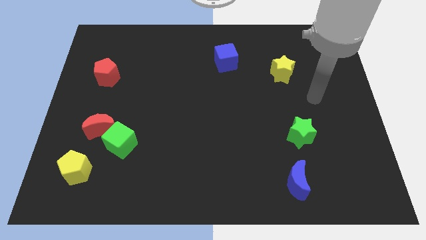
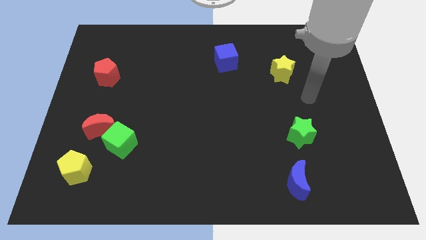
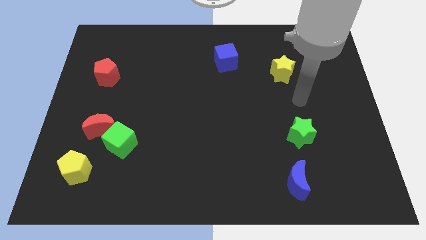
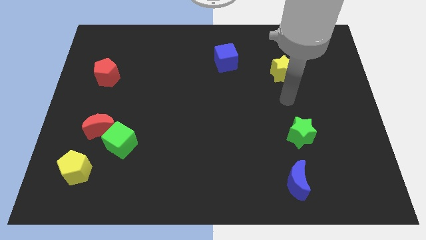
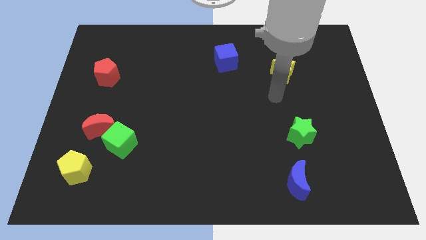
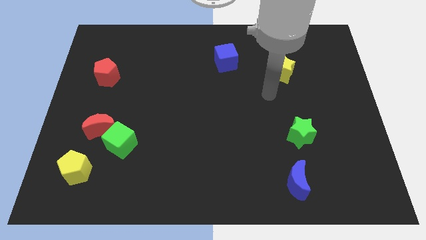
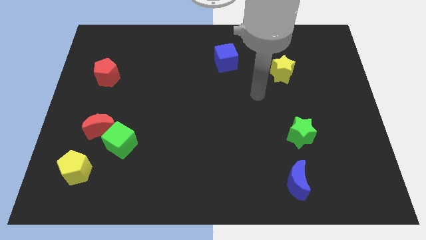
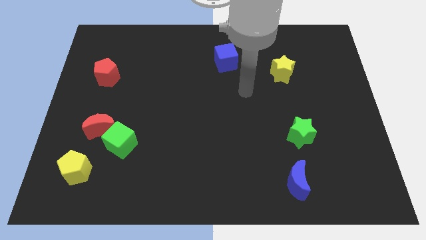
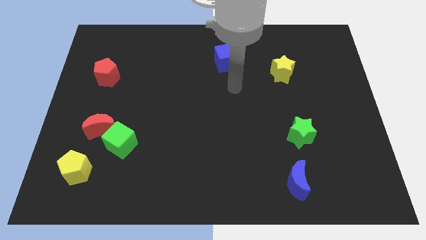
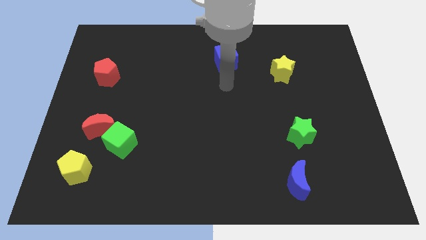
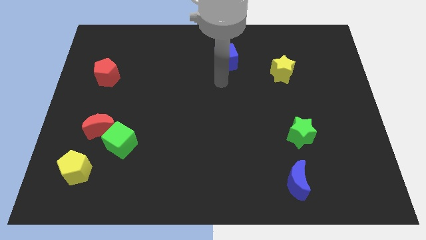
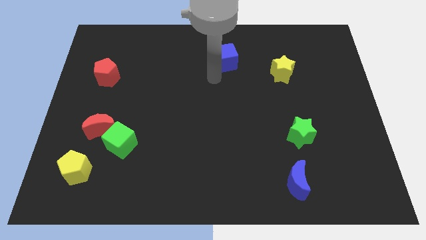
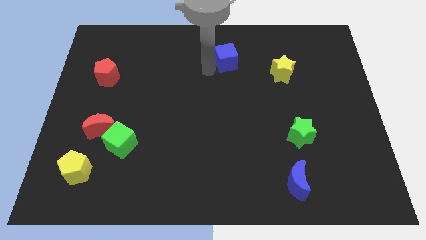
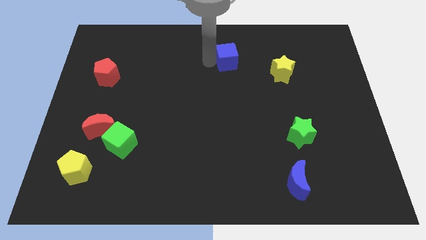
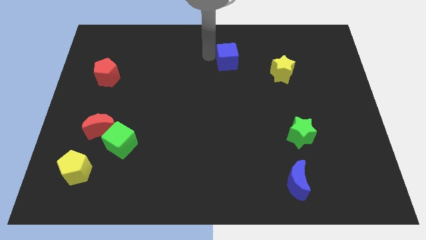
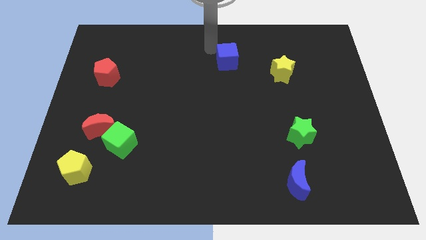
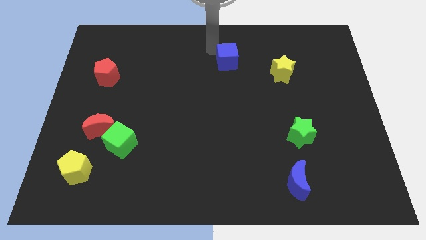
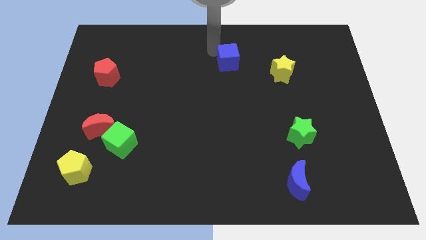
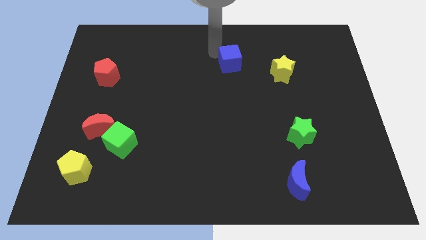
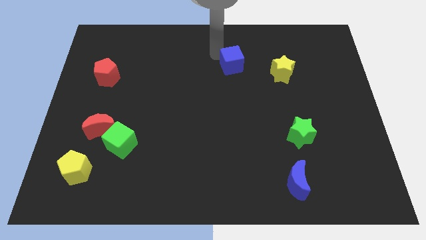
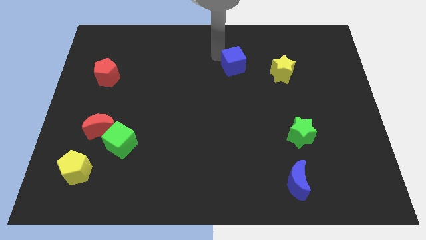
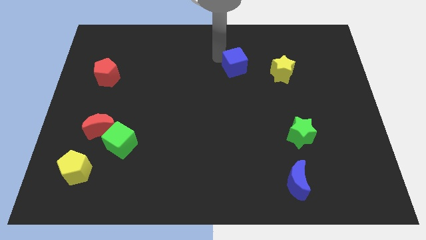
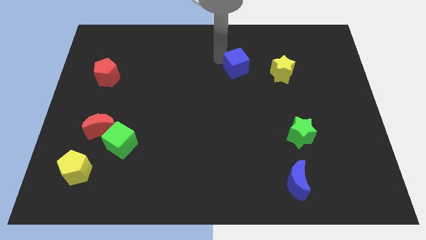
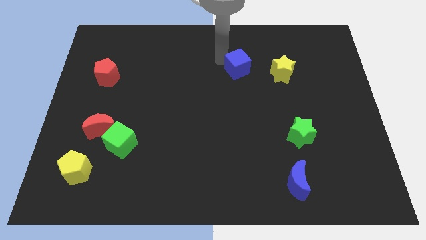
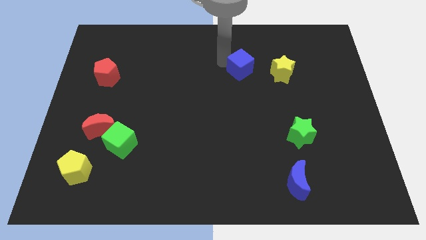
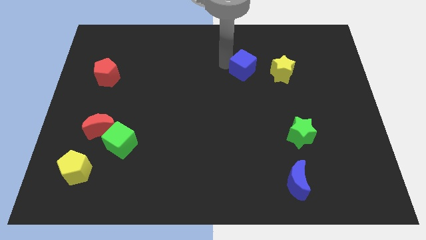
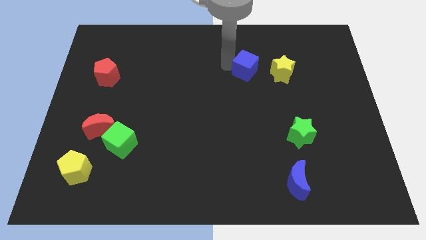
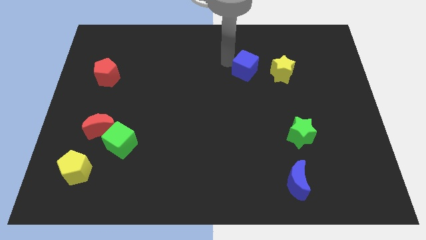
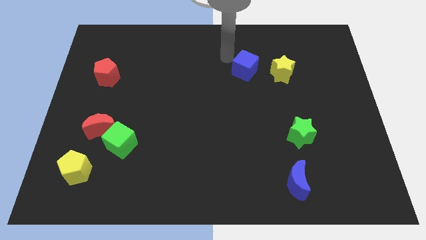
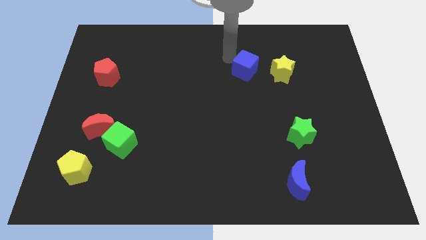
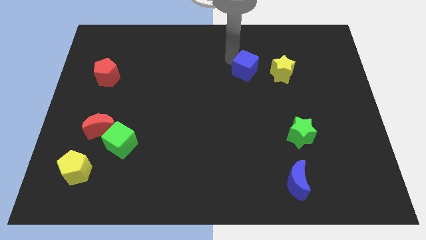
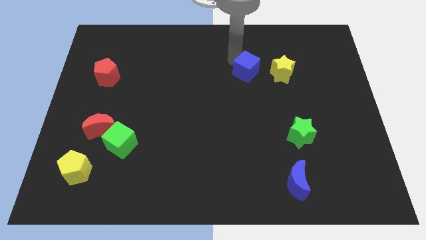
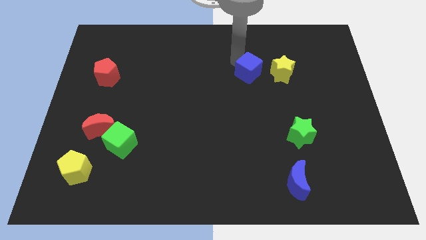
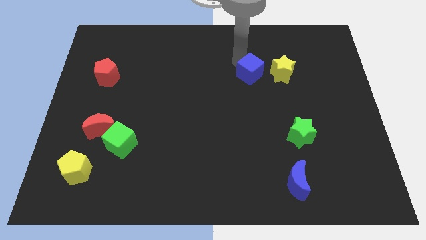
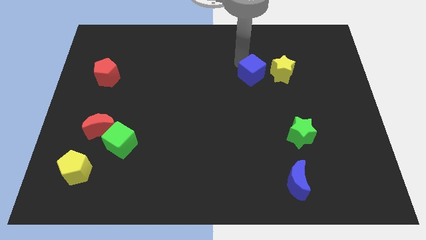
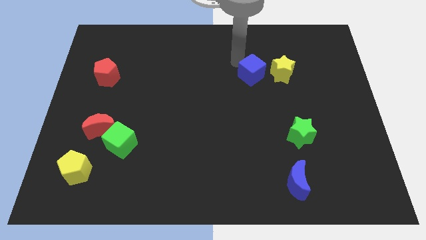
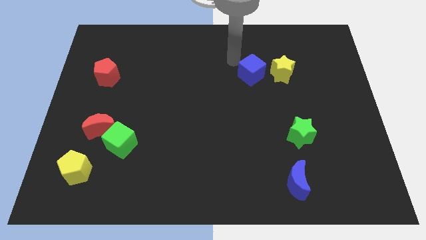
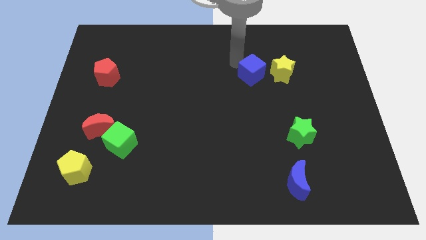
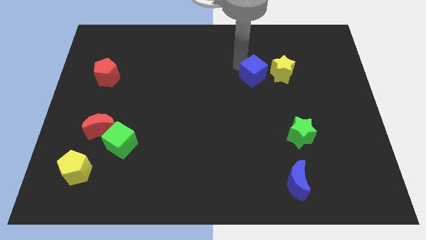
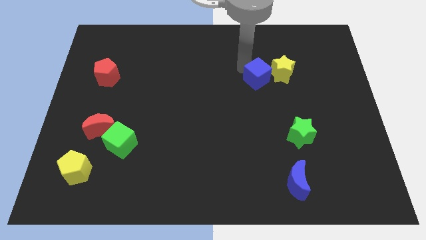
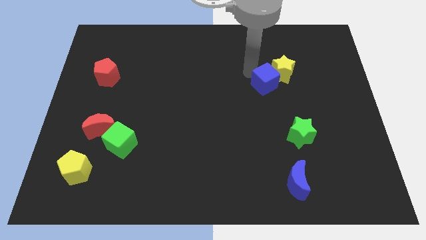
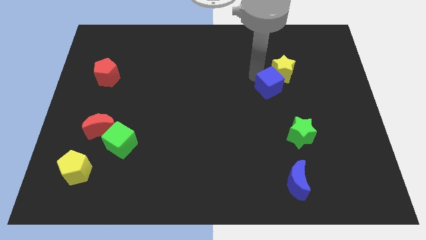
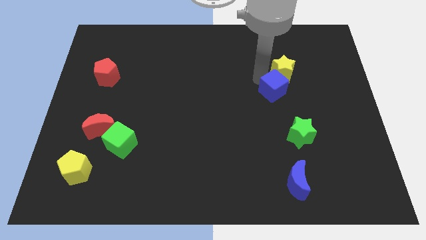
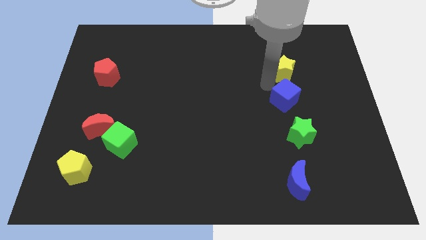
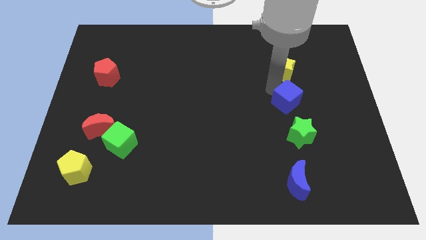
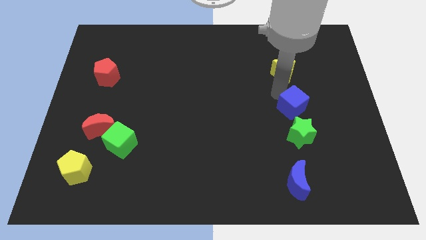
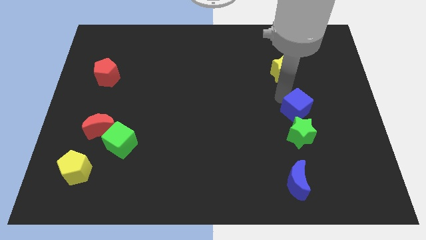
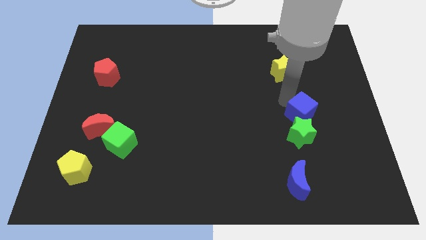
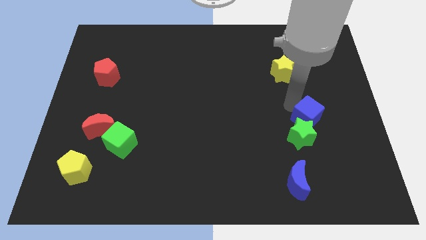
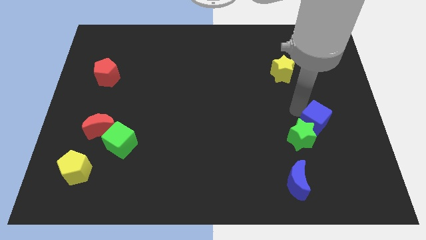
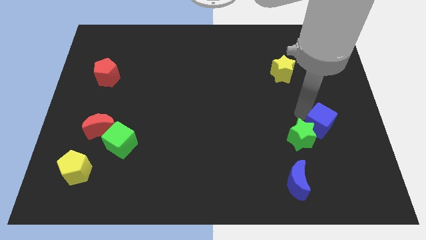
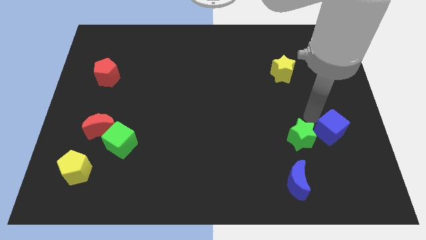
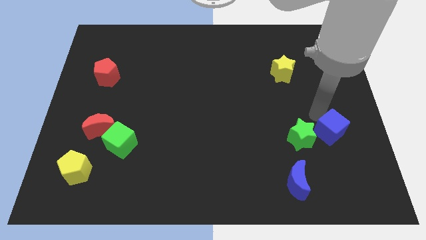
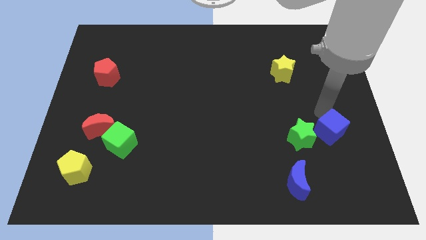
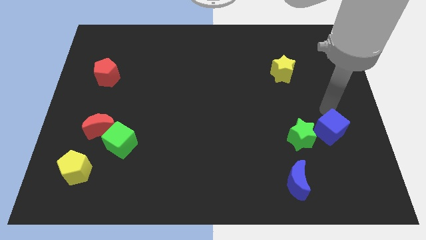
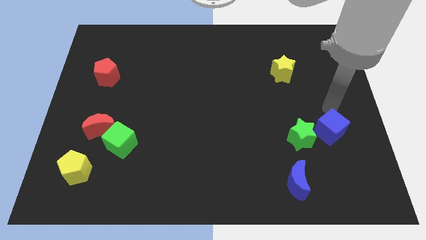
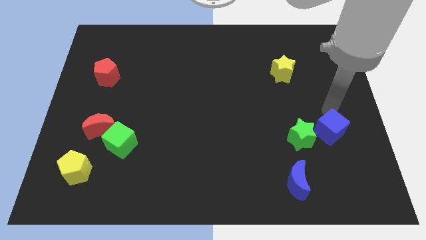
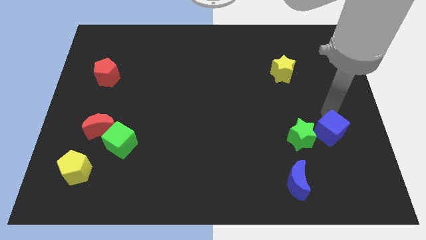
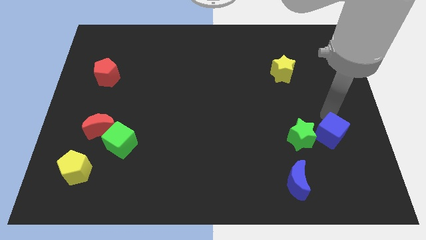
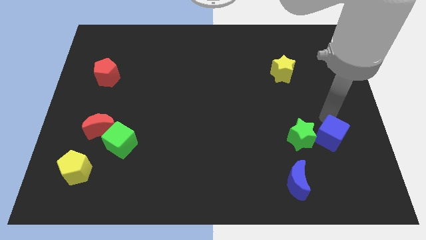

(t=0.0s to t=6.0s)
push the blue cube to the bottom right side of the green star

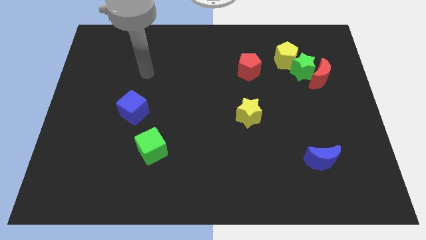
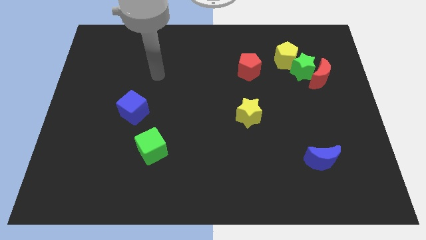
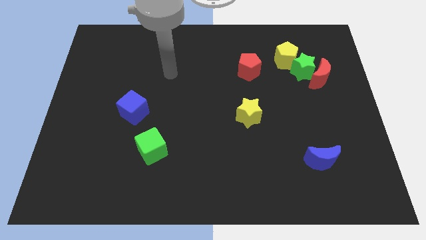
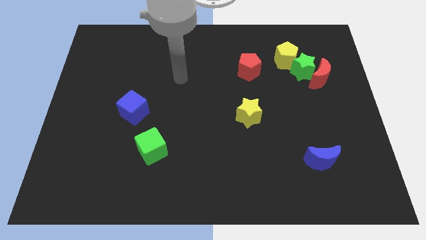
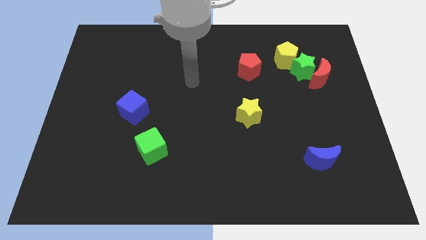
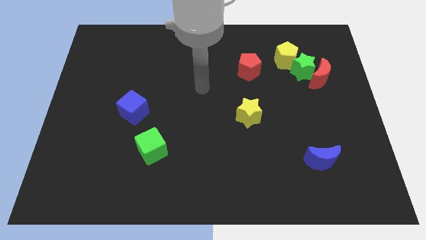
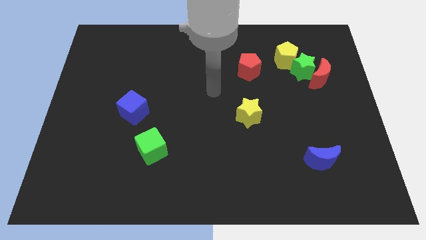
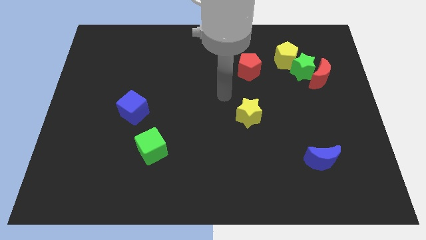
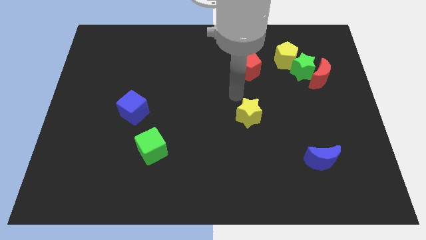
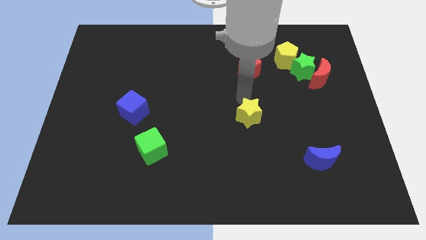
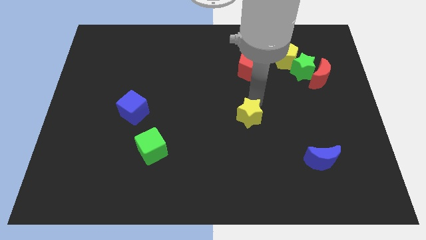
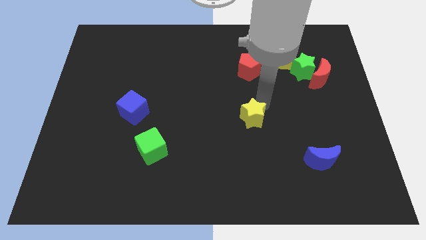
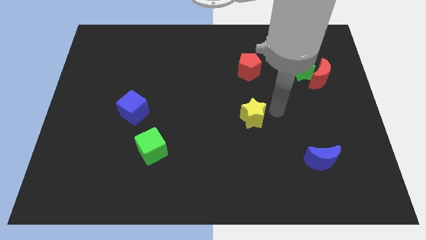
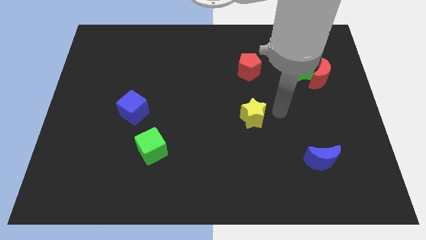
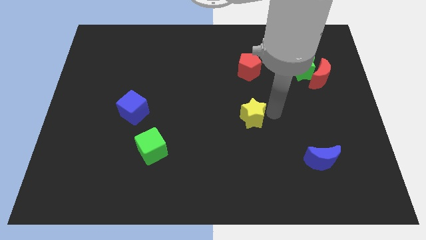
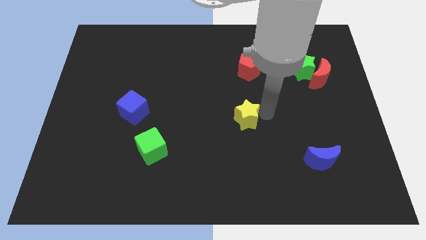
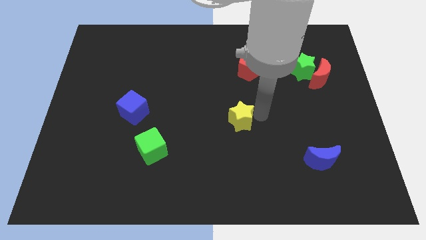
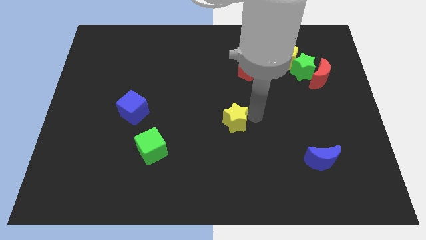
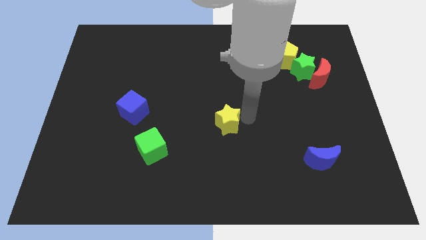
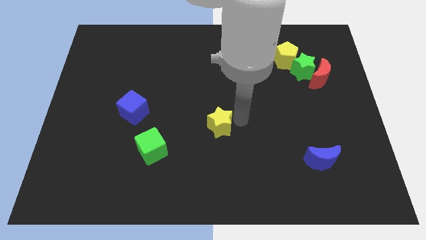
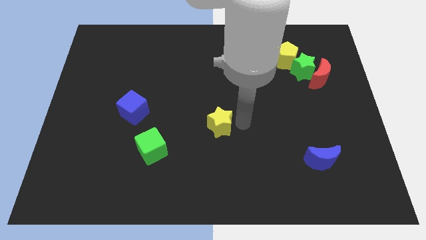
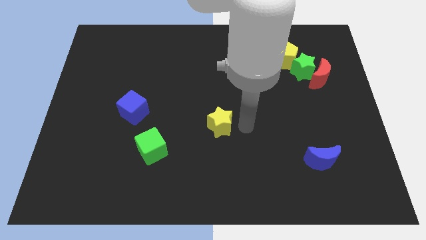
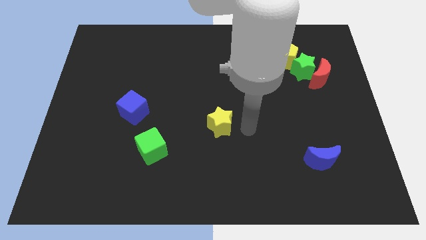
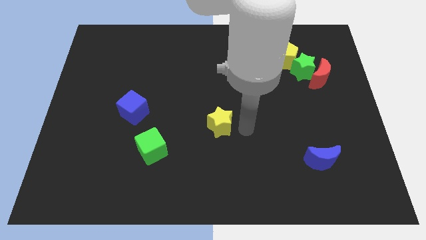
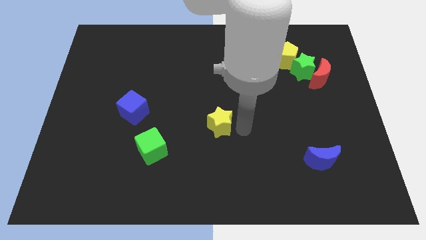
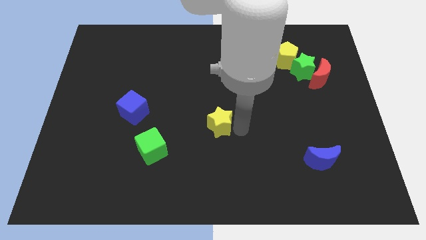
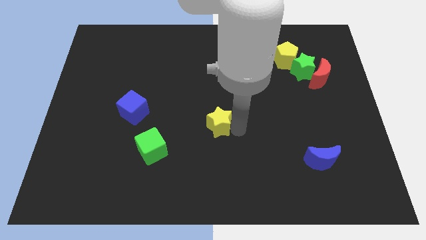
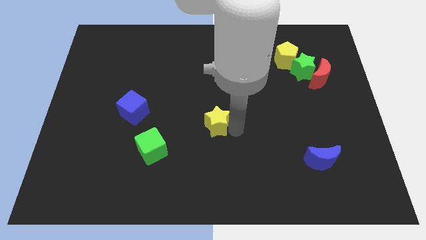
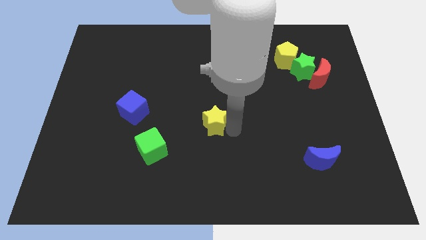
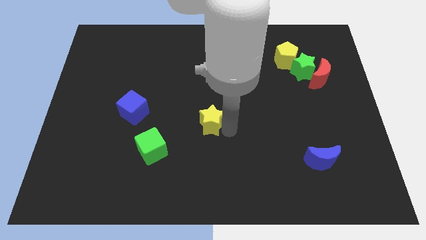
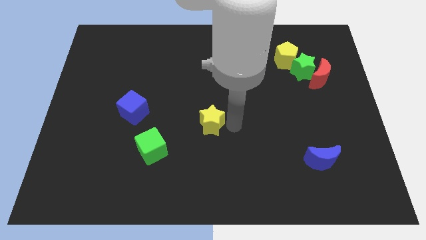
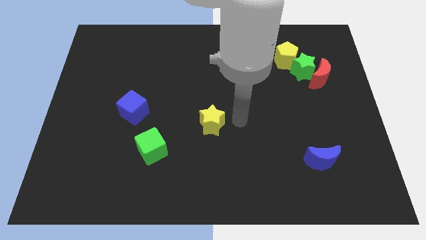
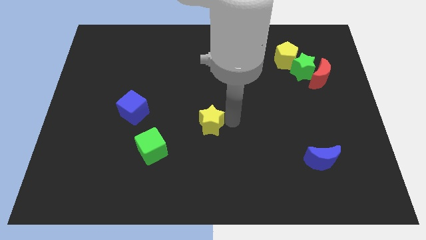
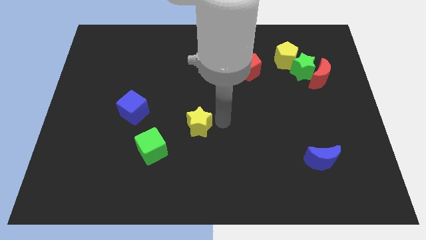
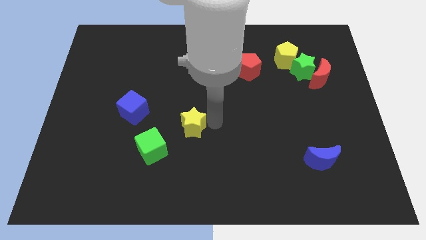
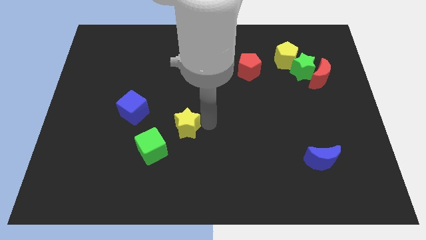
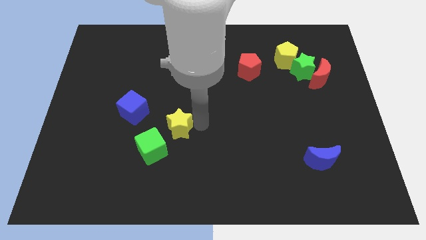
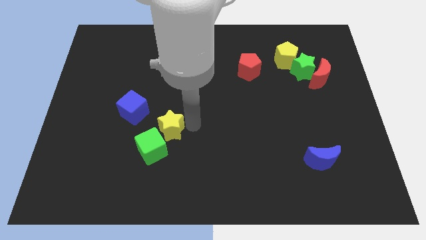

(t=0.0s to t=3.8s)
push the yellow star to the bottom right side of the blue cube
